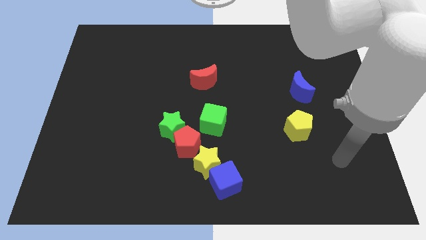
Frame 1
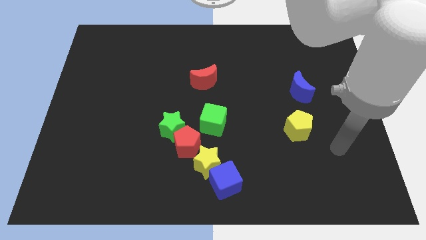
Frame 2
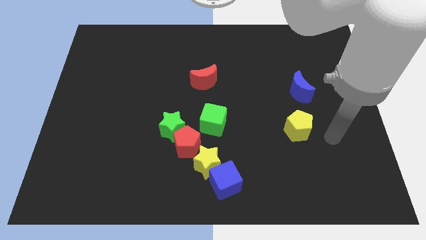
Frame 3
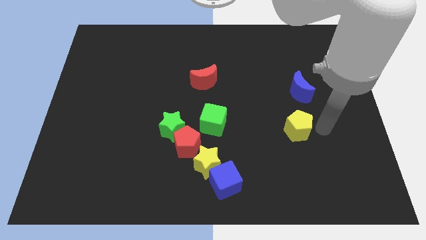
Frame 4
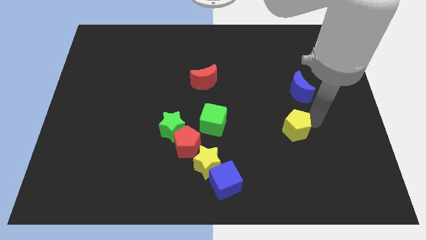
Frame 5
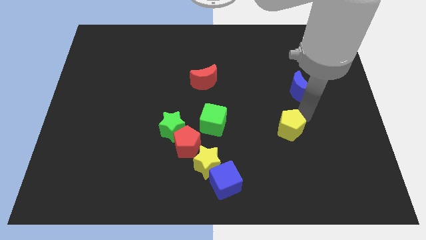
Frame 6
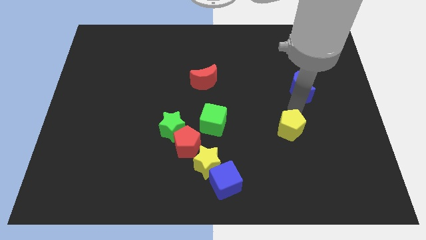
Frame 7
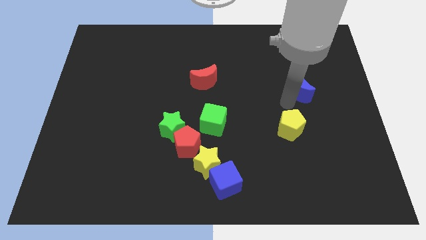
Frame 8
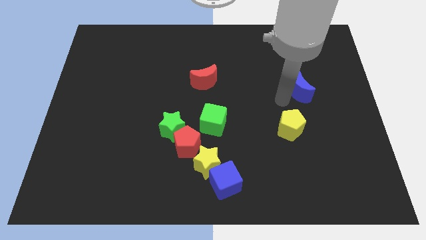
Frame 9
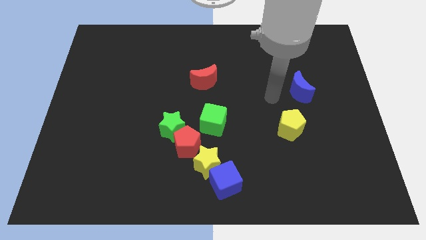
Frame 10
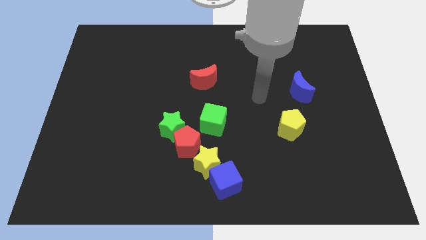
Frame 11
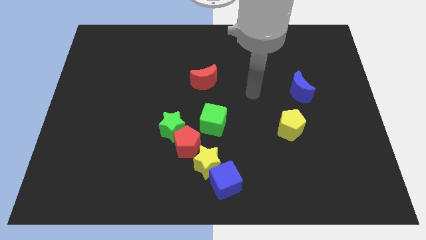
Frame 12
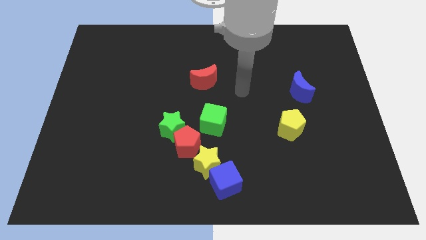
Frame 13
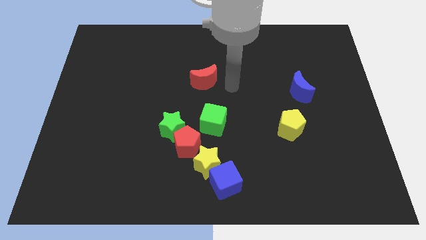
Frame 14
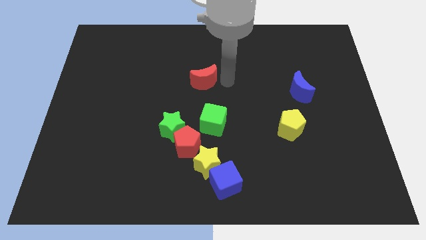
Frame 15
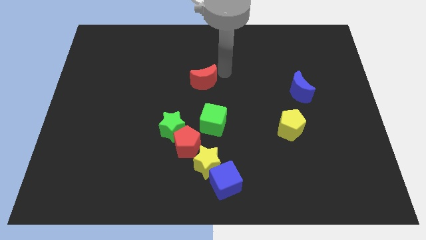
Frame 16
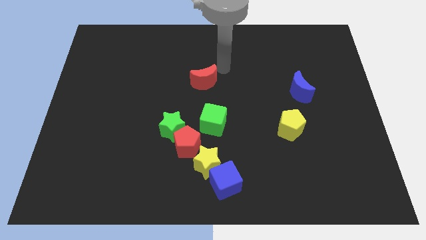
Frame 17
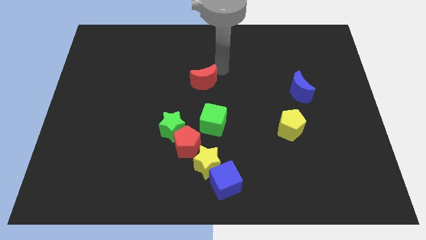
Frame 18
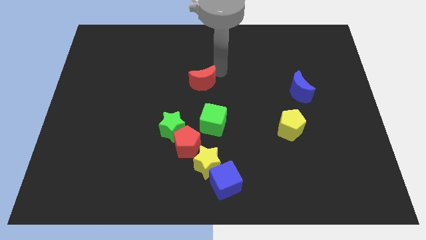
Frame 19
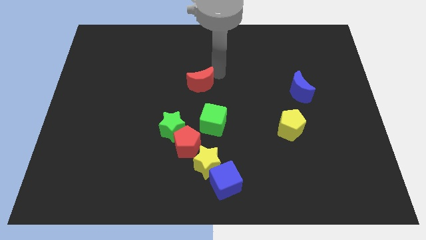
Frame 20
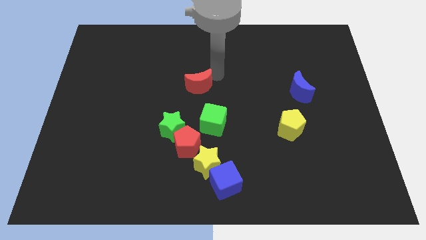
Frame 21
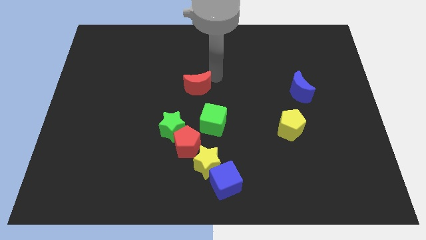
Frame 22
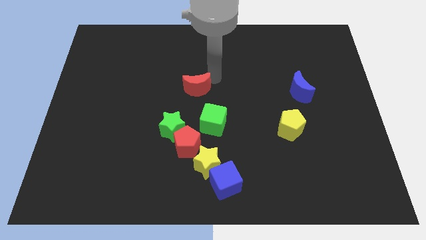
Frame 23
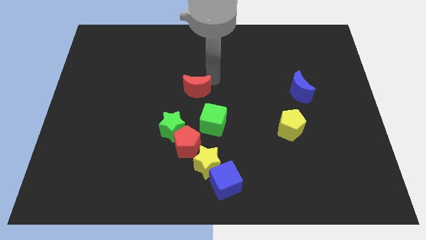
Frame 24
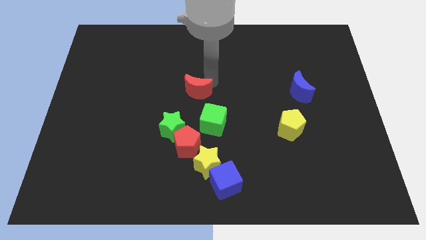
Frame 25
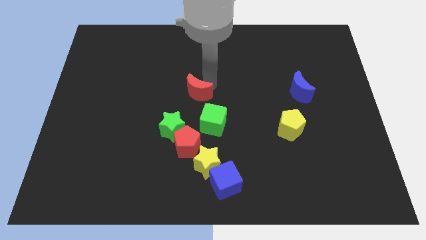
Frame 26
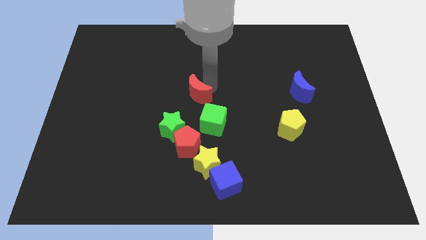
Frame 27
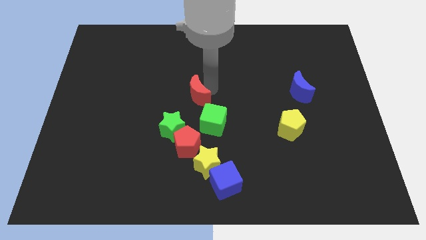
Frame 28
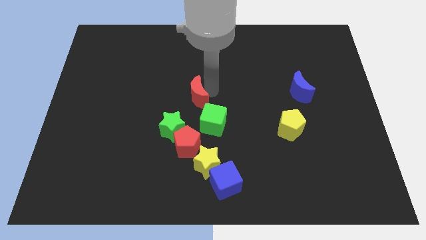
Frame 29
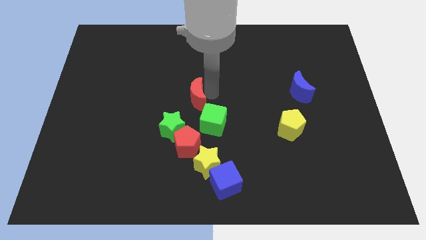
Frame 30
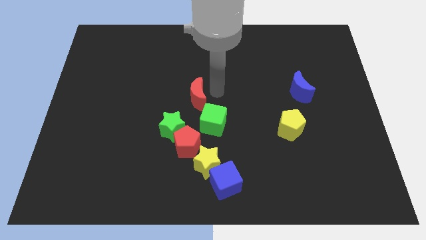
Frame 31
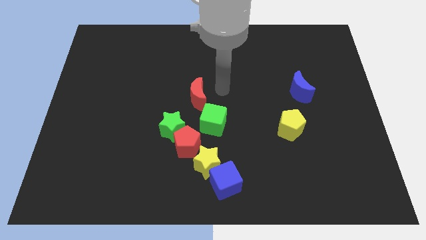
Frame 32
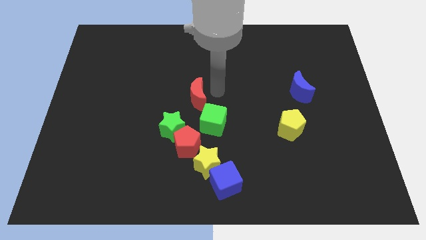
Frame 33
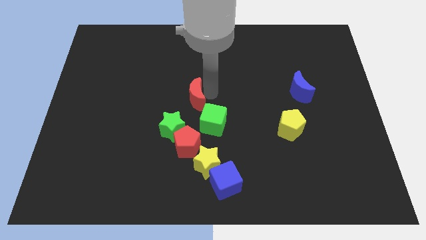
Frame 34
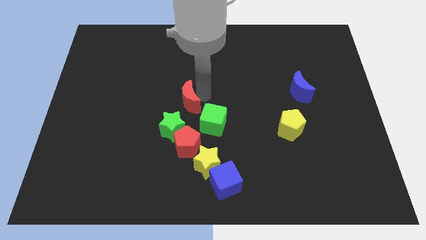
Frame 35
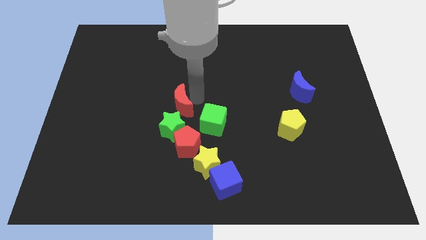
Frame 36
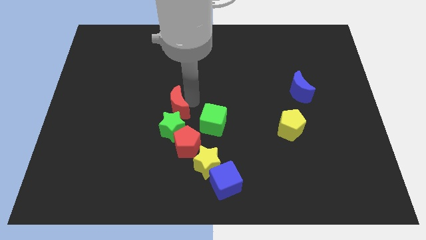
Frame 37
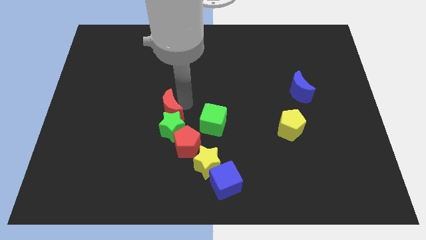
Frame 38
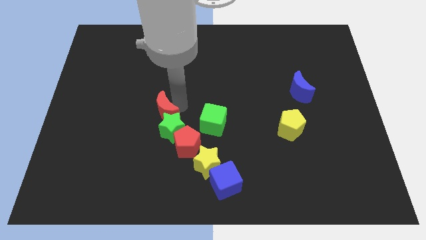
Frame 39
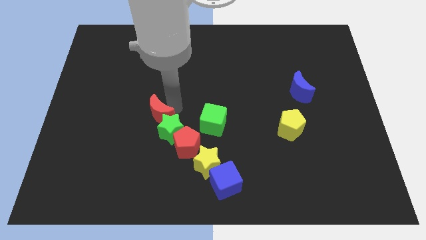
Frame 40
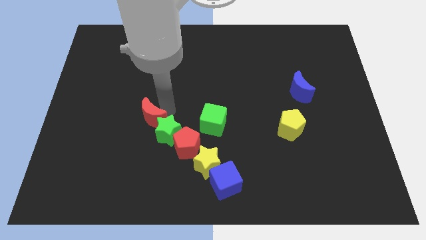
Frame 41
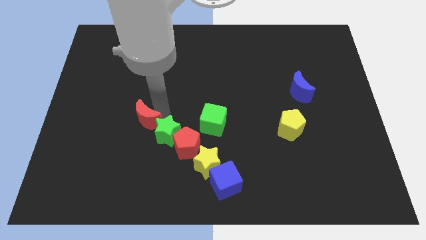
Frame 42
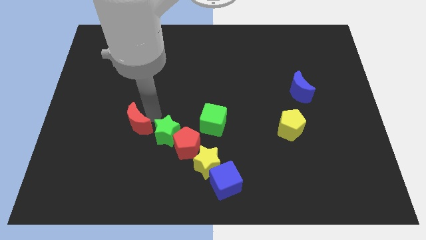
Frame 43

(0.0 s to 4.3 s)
slide the red moon diagonally down and to the left

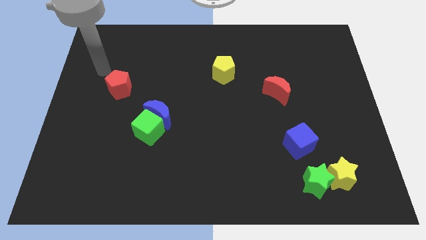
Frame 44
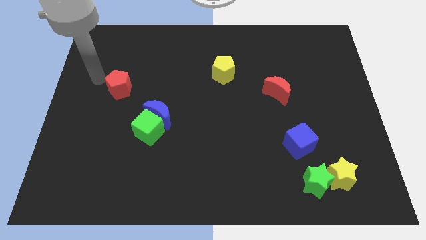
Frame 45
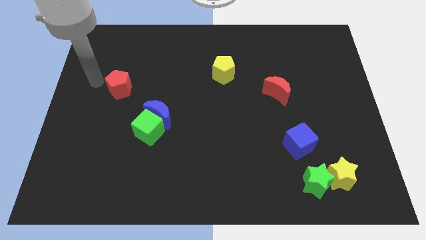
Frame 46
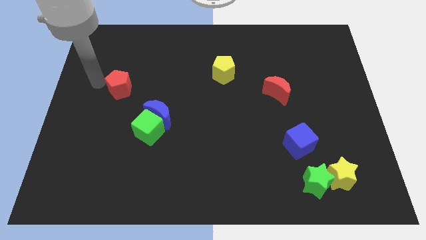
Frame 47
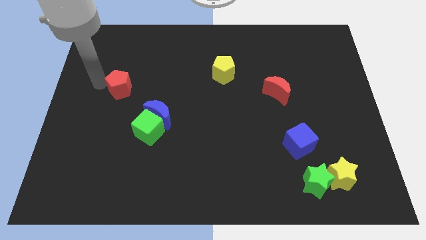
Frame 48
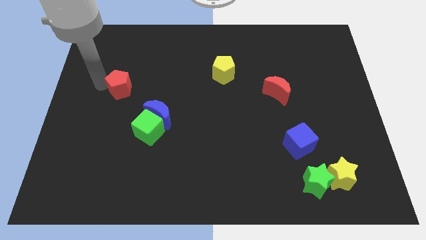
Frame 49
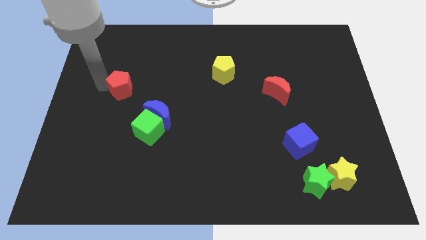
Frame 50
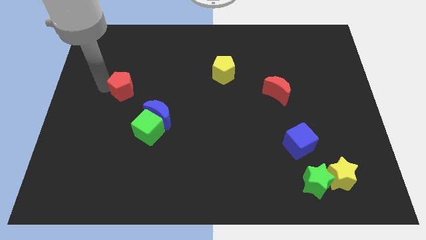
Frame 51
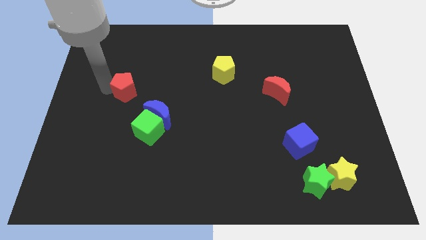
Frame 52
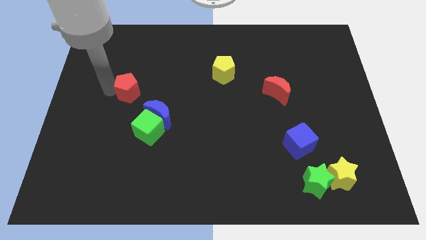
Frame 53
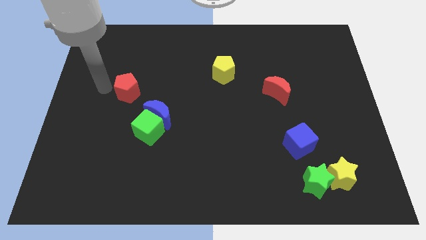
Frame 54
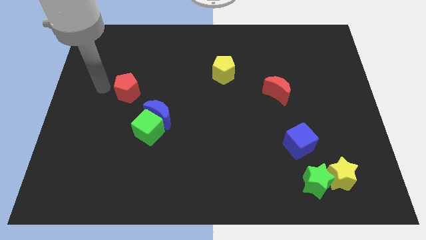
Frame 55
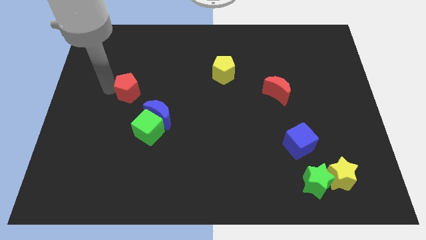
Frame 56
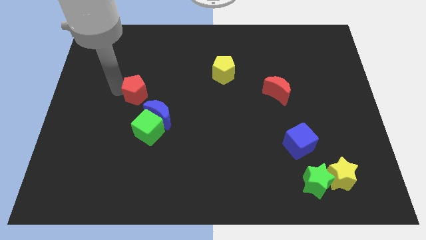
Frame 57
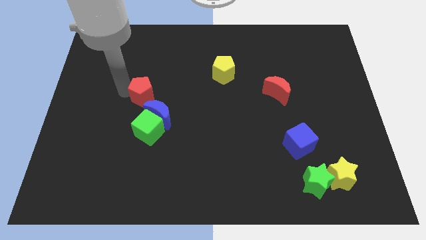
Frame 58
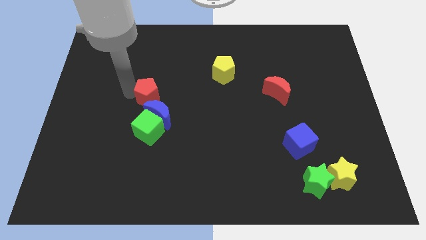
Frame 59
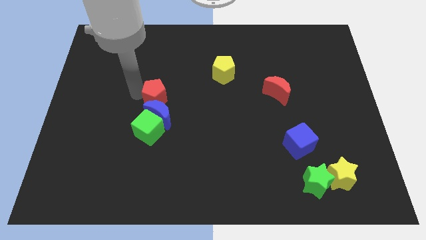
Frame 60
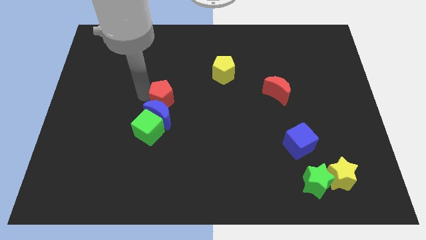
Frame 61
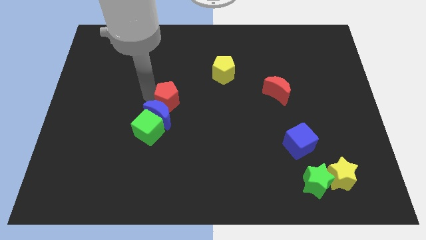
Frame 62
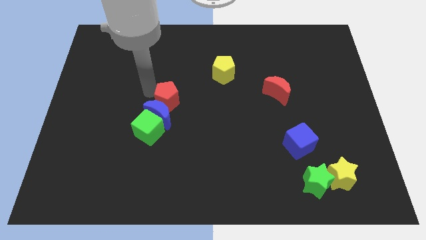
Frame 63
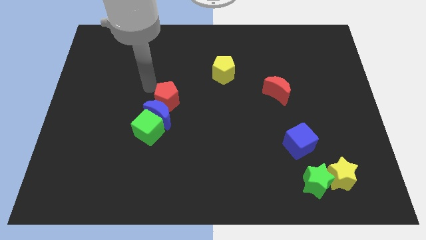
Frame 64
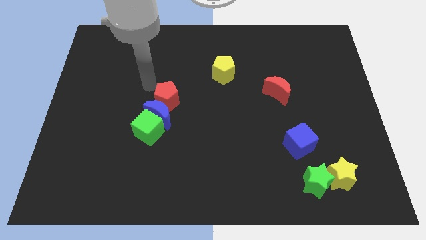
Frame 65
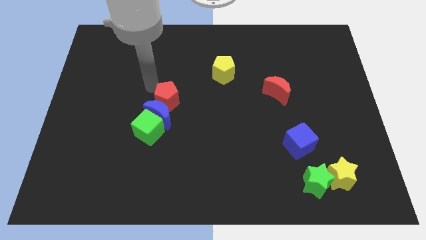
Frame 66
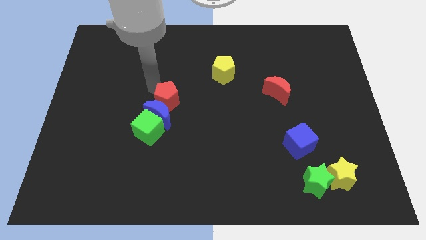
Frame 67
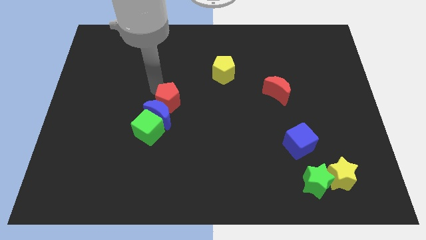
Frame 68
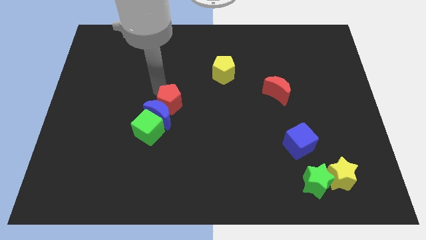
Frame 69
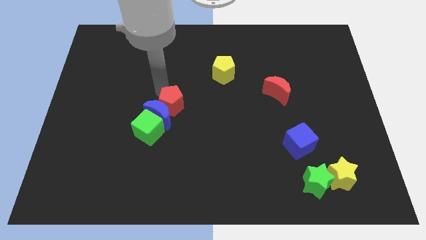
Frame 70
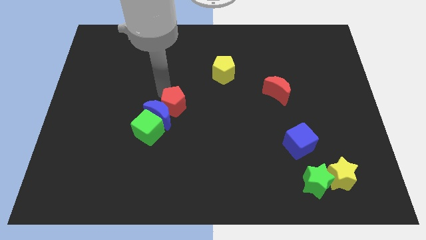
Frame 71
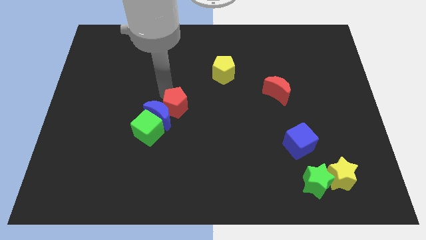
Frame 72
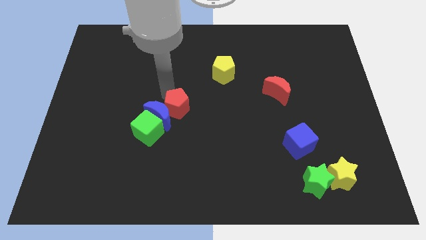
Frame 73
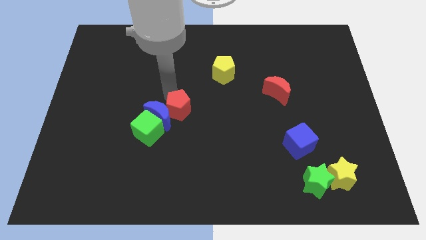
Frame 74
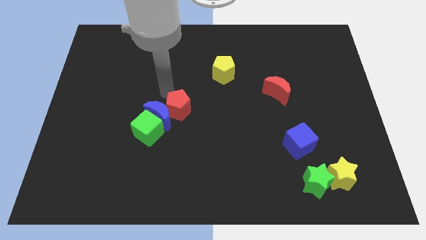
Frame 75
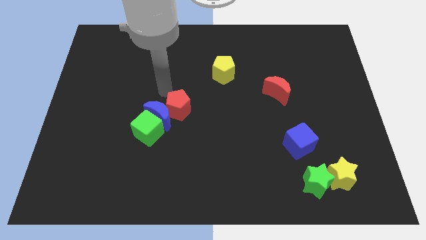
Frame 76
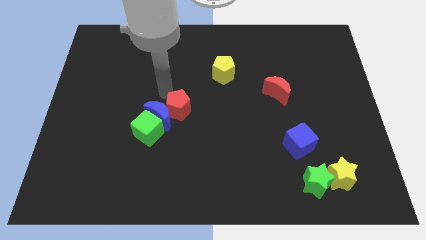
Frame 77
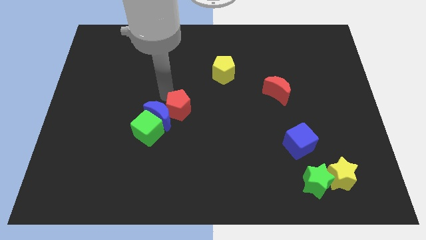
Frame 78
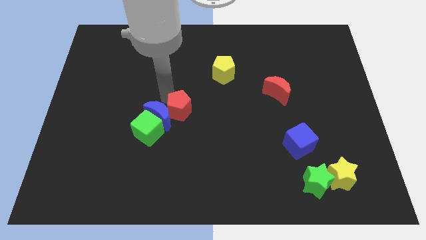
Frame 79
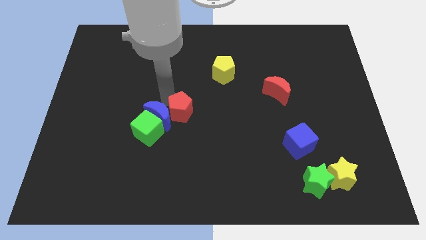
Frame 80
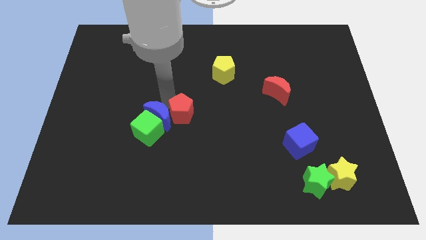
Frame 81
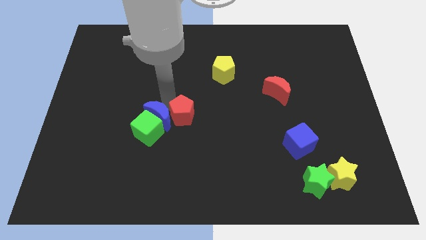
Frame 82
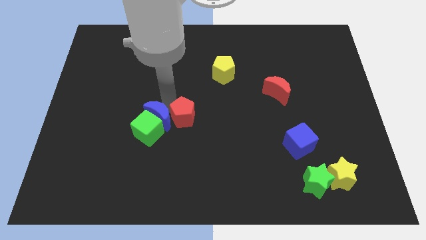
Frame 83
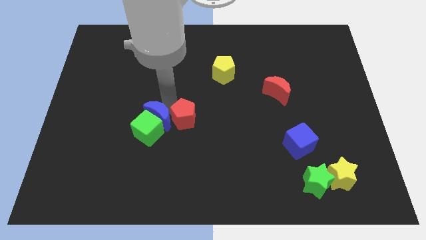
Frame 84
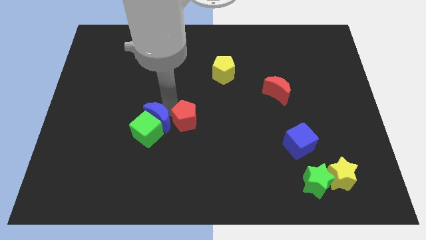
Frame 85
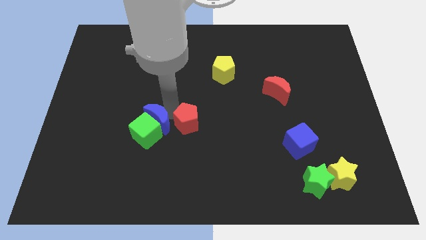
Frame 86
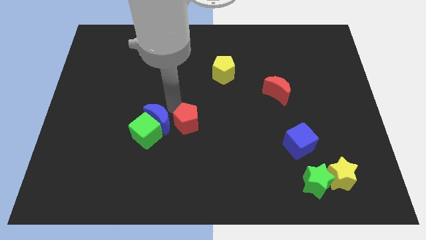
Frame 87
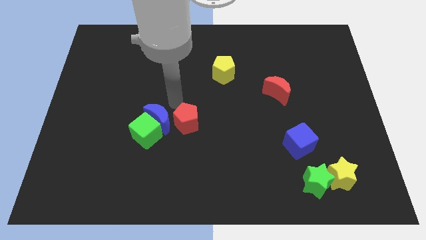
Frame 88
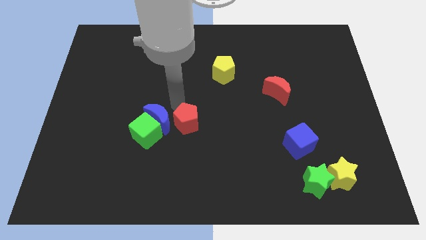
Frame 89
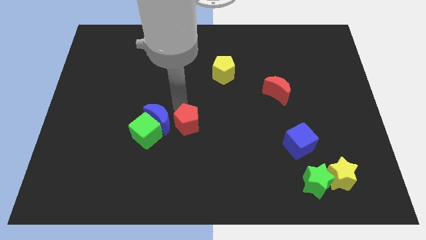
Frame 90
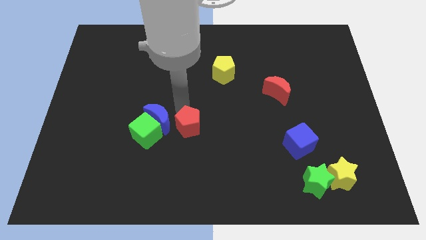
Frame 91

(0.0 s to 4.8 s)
push the red pentagon down and to the right diagonally
